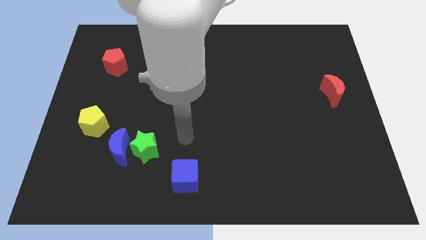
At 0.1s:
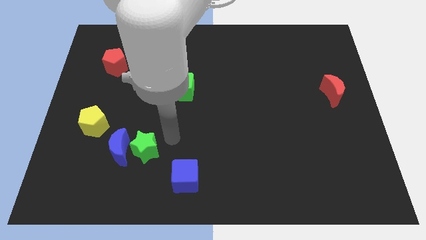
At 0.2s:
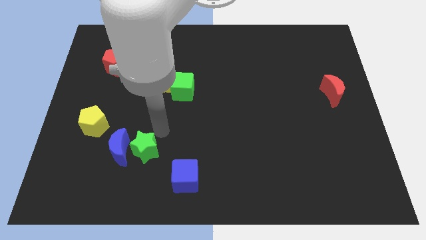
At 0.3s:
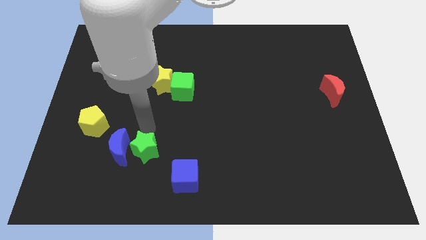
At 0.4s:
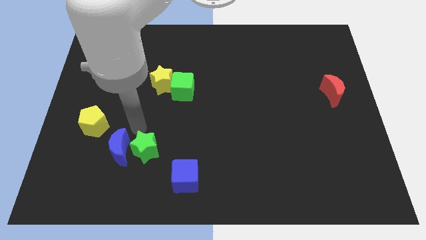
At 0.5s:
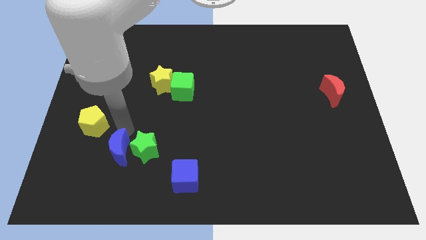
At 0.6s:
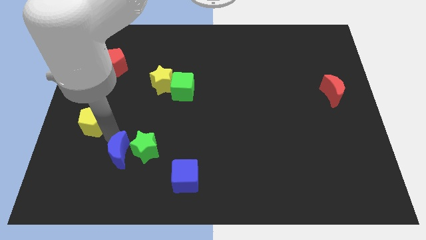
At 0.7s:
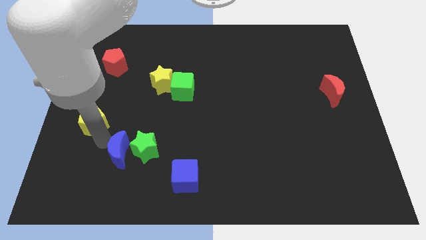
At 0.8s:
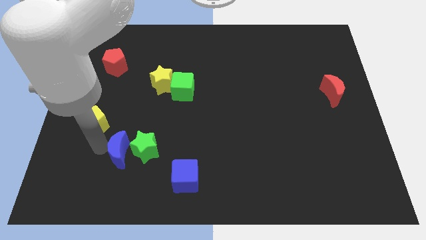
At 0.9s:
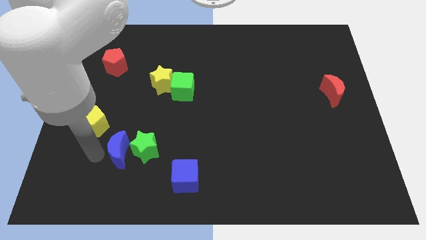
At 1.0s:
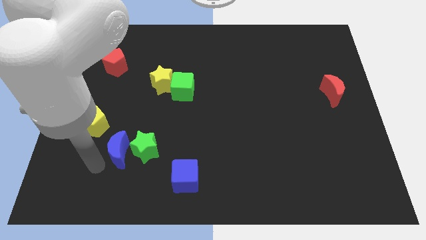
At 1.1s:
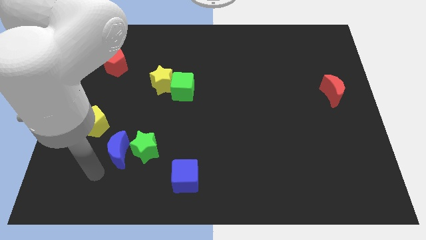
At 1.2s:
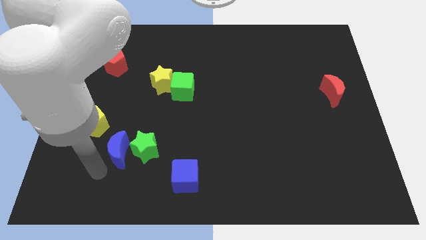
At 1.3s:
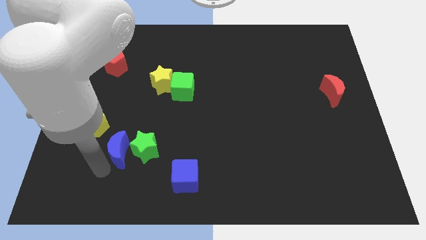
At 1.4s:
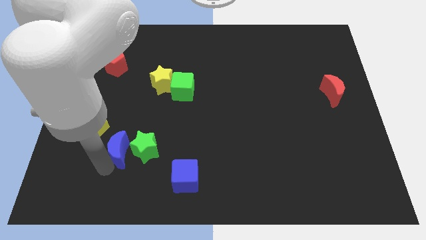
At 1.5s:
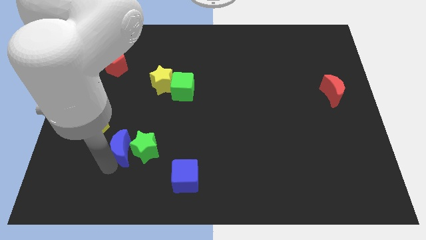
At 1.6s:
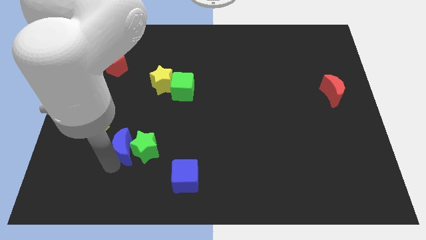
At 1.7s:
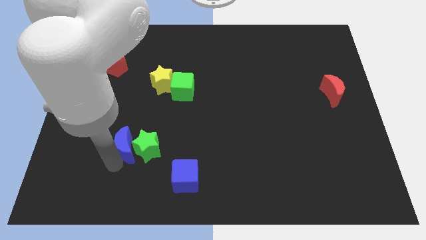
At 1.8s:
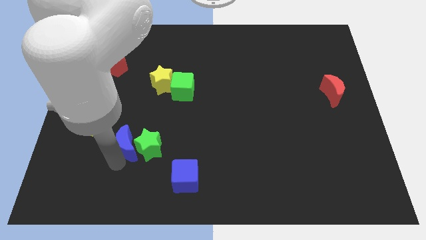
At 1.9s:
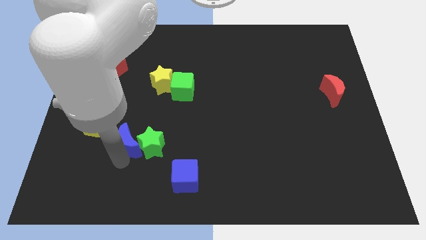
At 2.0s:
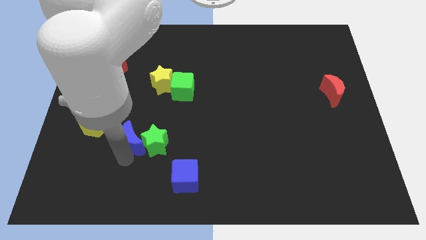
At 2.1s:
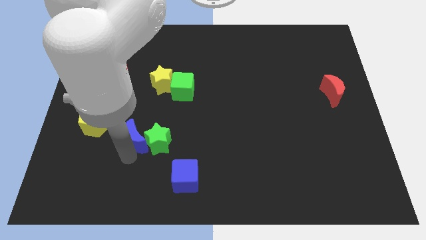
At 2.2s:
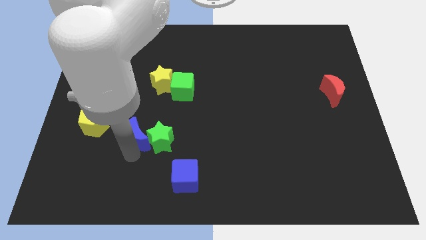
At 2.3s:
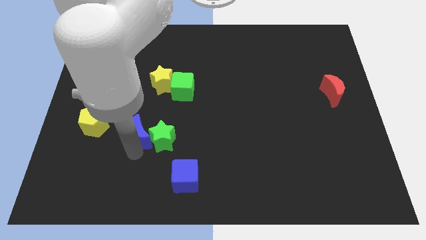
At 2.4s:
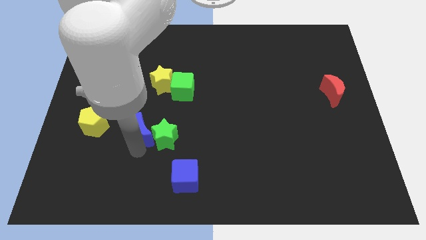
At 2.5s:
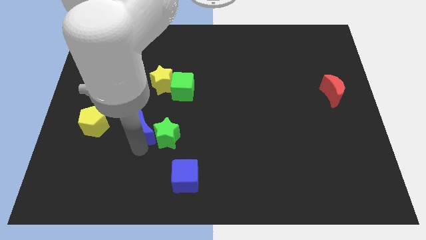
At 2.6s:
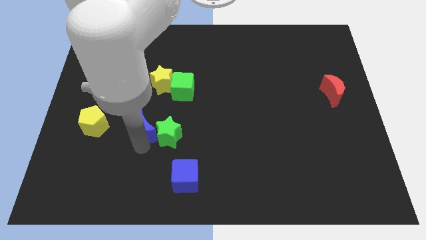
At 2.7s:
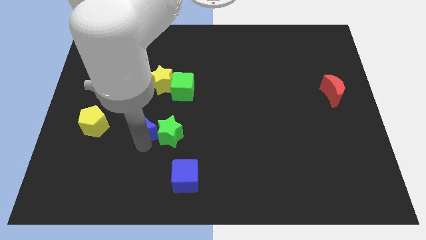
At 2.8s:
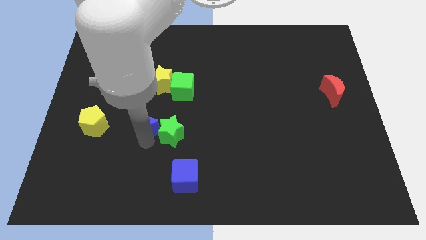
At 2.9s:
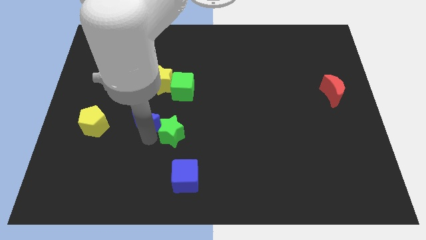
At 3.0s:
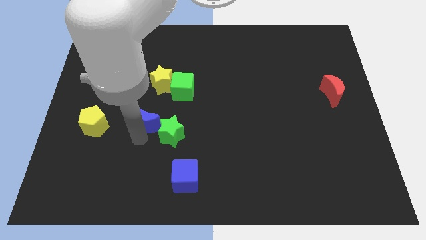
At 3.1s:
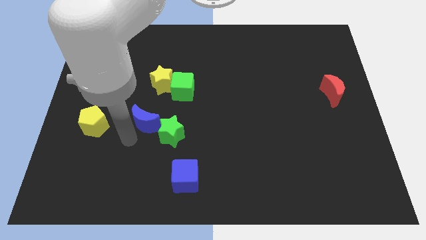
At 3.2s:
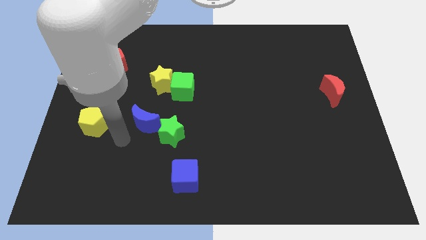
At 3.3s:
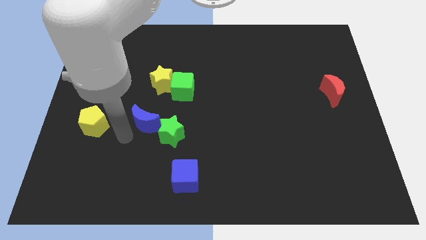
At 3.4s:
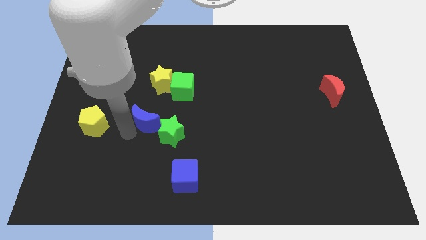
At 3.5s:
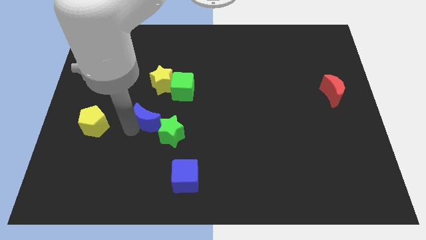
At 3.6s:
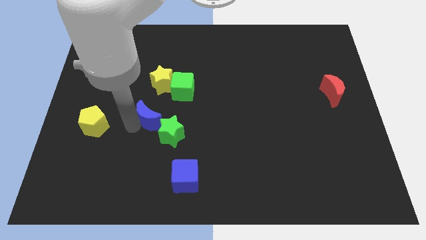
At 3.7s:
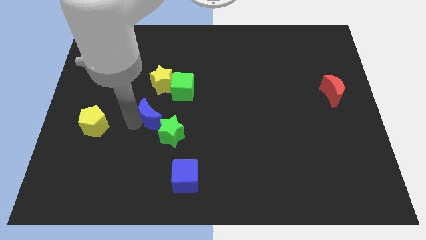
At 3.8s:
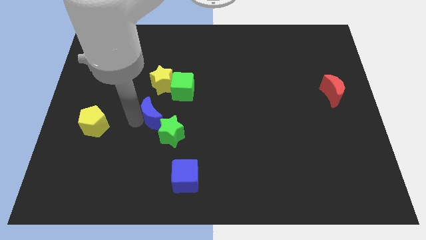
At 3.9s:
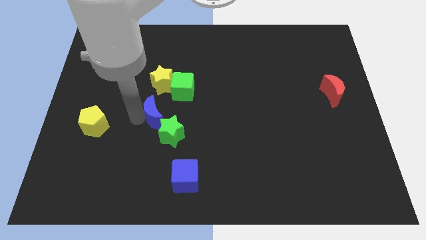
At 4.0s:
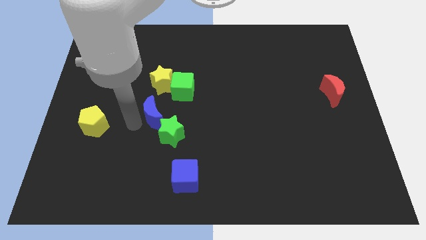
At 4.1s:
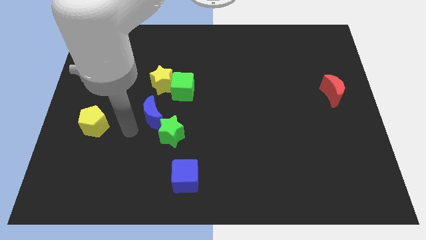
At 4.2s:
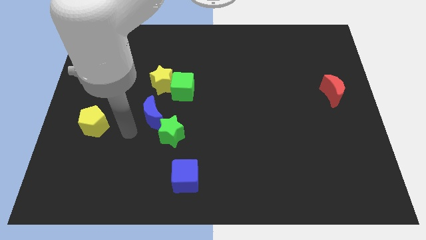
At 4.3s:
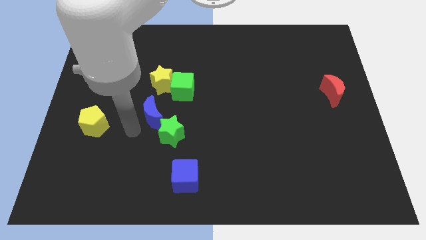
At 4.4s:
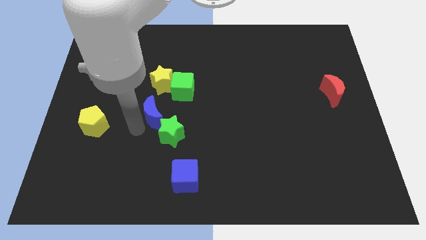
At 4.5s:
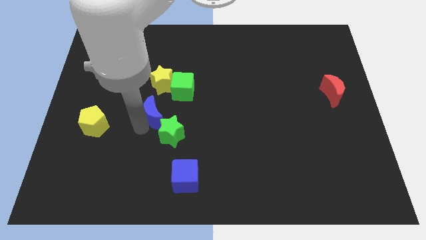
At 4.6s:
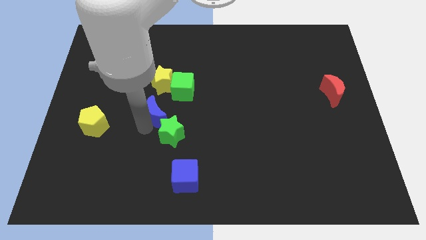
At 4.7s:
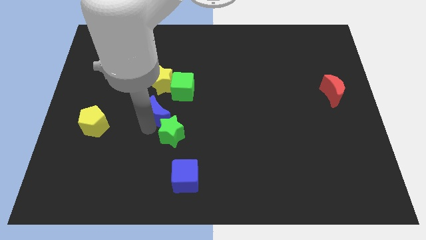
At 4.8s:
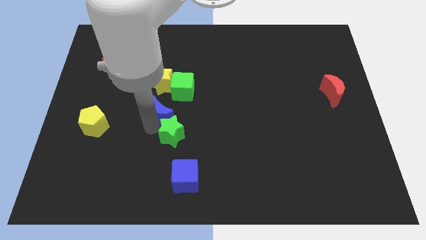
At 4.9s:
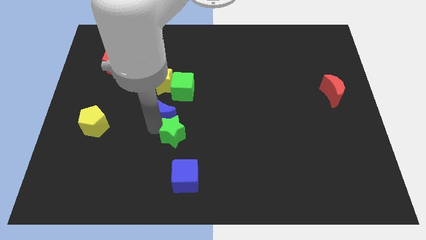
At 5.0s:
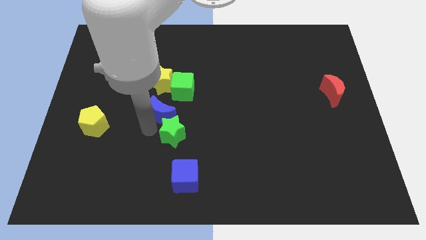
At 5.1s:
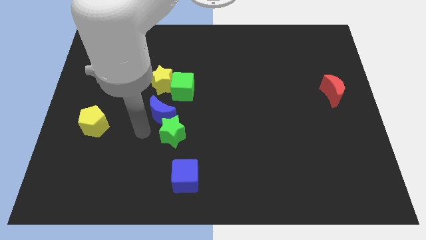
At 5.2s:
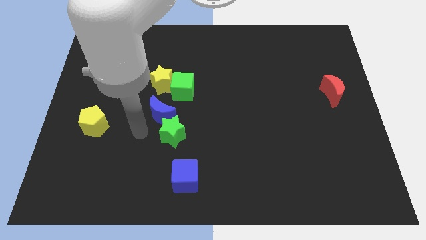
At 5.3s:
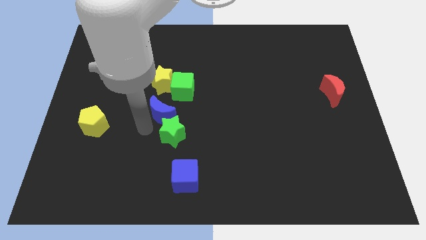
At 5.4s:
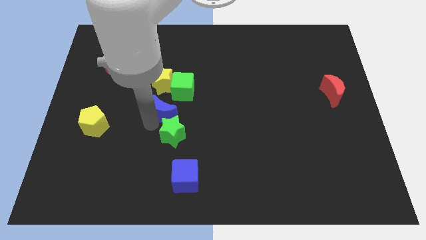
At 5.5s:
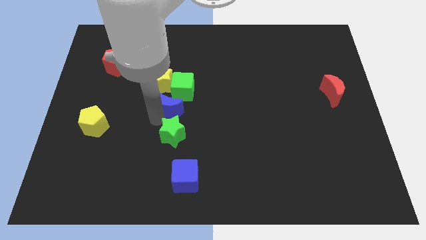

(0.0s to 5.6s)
put the blue moon diagonally down and to the right of the yellow star
